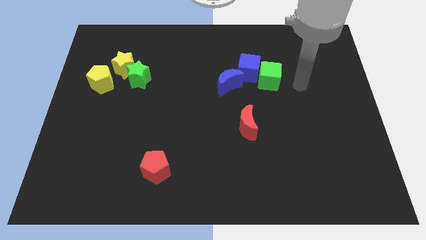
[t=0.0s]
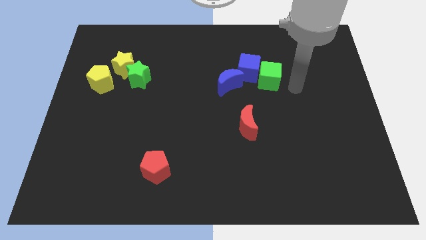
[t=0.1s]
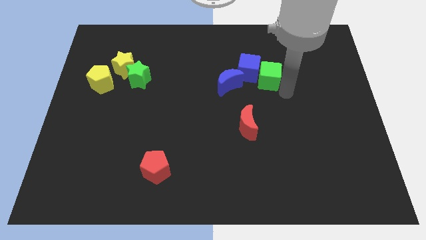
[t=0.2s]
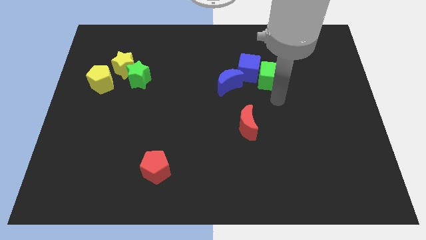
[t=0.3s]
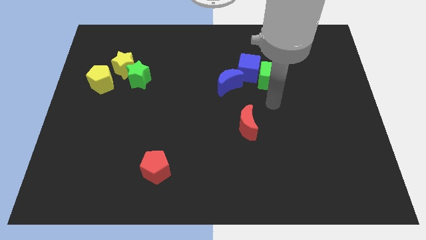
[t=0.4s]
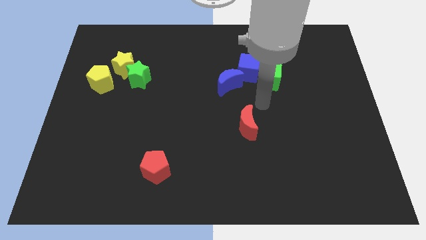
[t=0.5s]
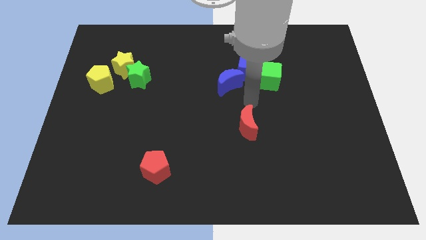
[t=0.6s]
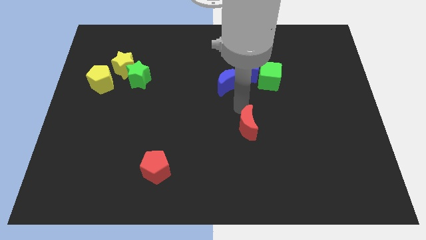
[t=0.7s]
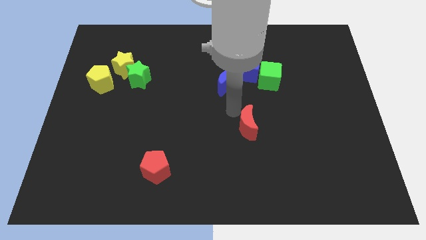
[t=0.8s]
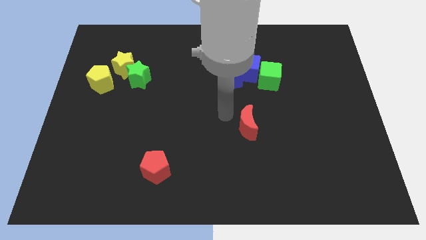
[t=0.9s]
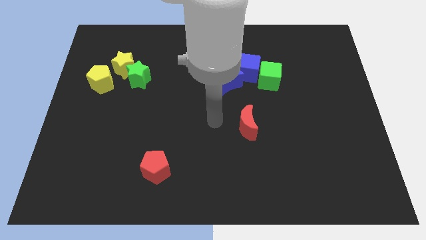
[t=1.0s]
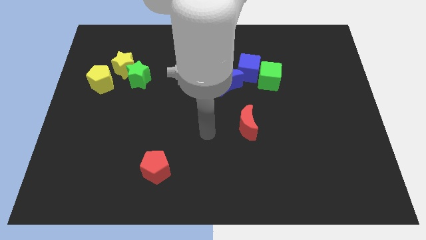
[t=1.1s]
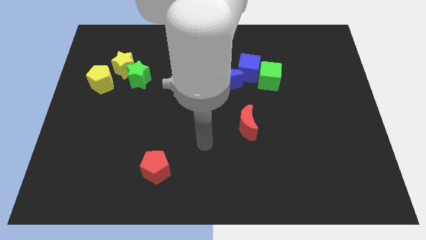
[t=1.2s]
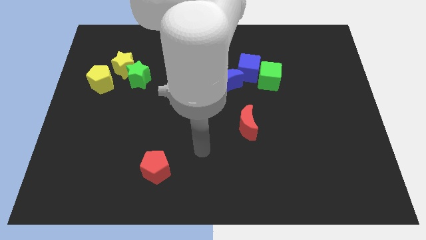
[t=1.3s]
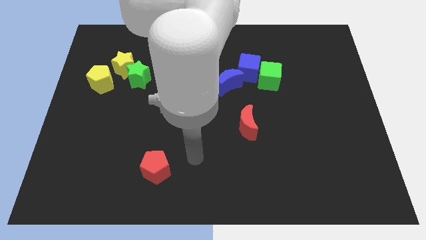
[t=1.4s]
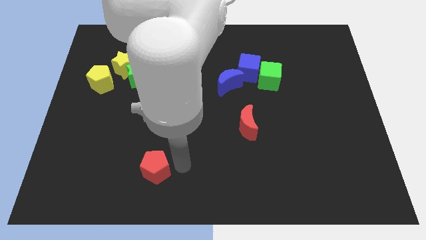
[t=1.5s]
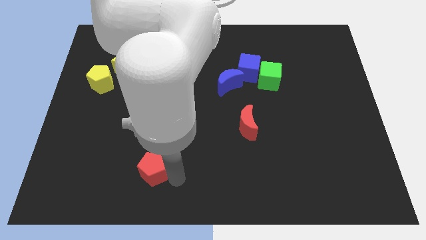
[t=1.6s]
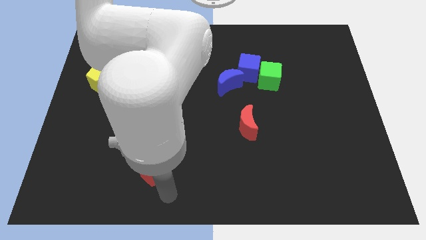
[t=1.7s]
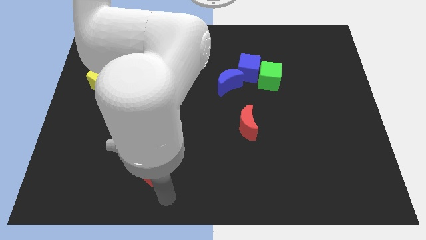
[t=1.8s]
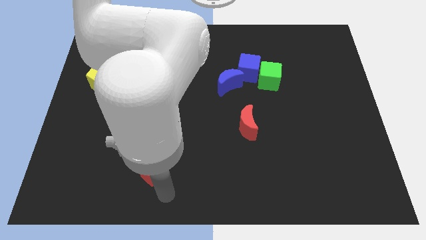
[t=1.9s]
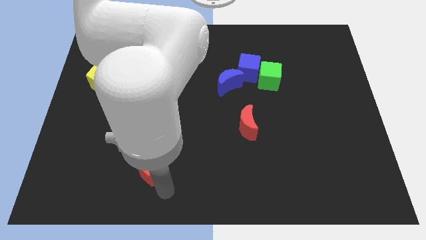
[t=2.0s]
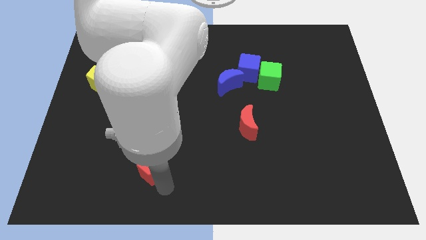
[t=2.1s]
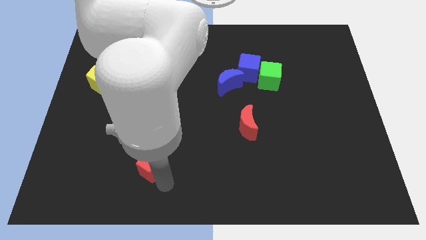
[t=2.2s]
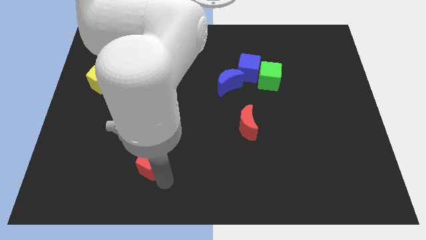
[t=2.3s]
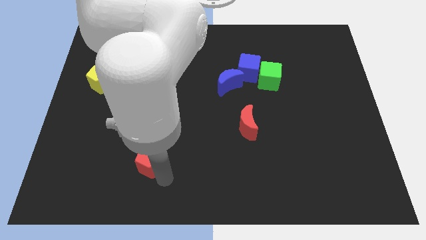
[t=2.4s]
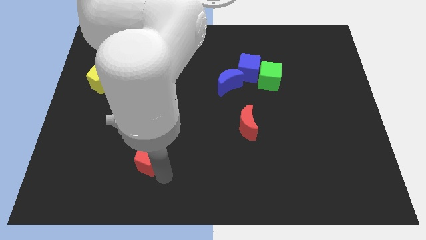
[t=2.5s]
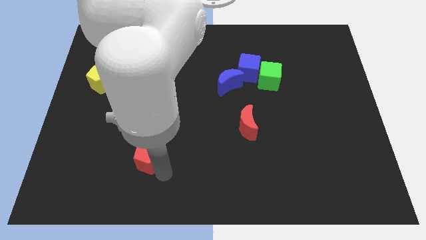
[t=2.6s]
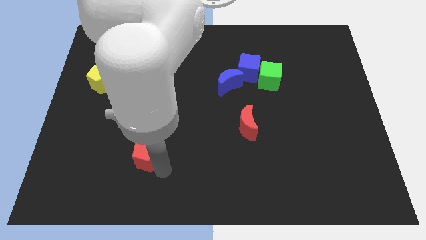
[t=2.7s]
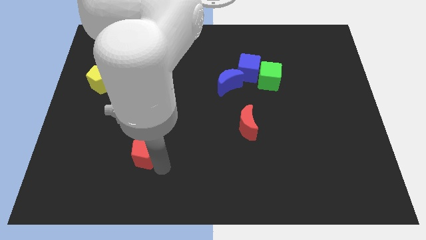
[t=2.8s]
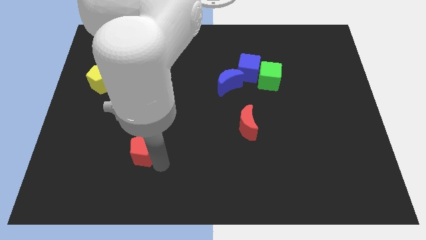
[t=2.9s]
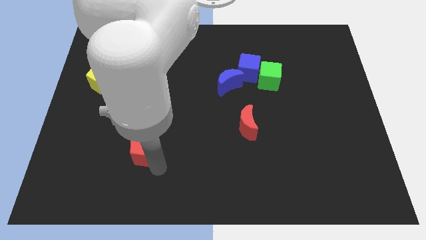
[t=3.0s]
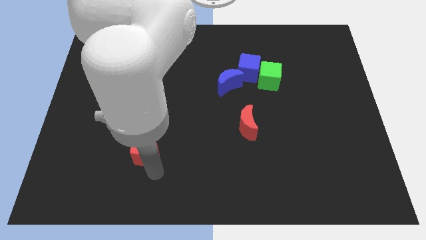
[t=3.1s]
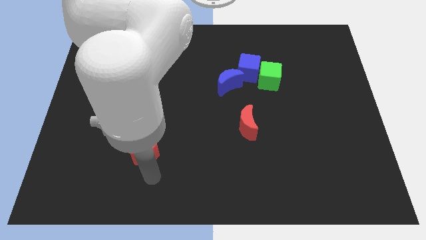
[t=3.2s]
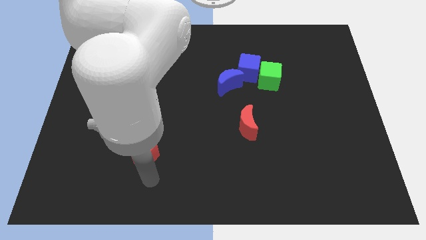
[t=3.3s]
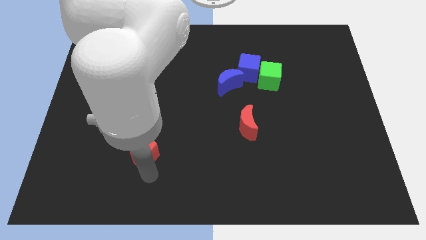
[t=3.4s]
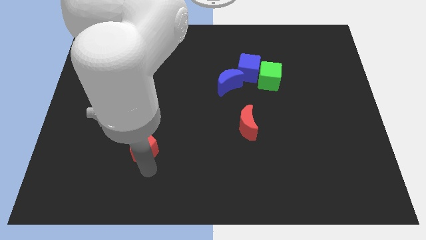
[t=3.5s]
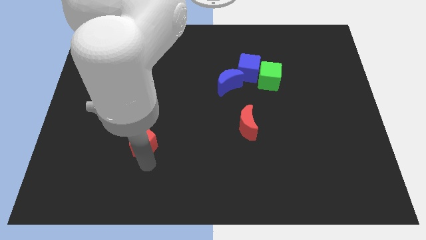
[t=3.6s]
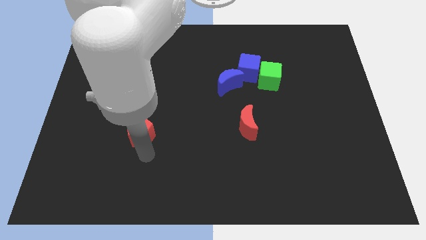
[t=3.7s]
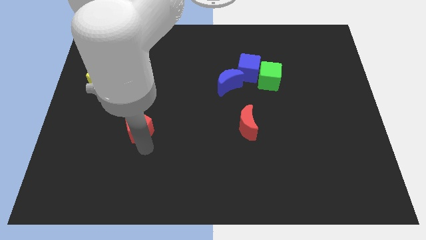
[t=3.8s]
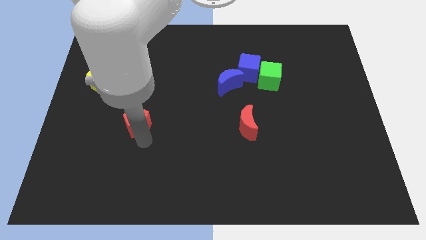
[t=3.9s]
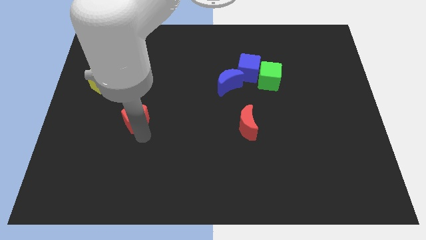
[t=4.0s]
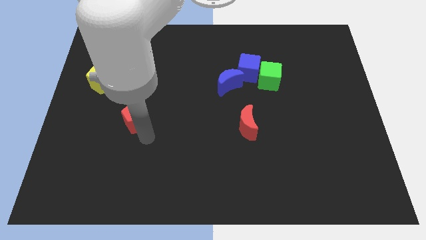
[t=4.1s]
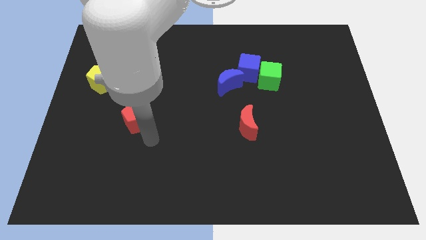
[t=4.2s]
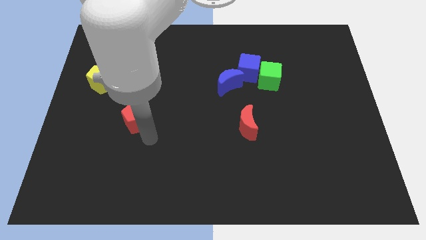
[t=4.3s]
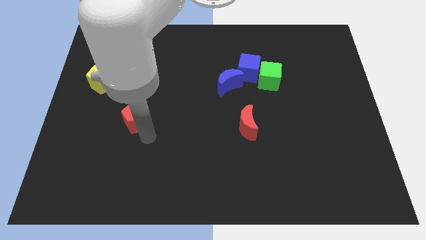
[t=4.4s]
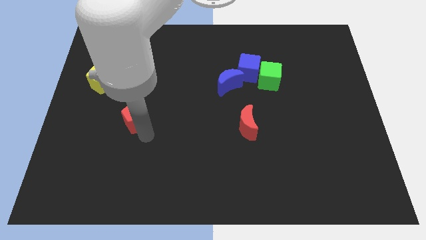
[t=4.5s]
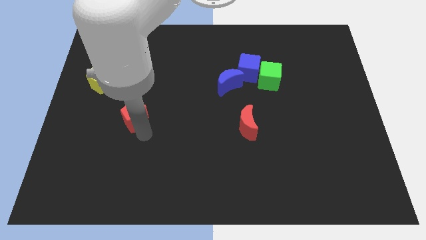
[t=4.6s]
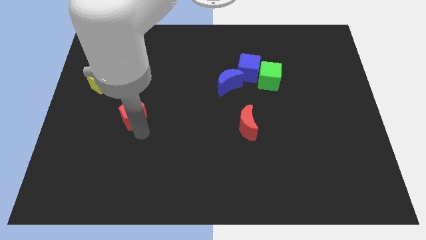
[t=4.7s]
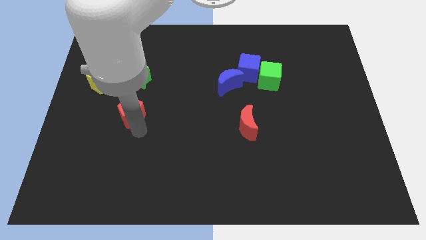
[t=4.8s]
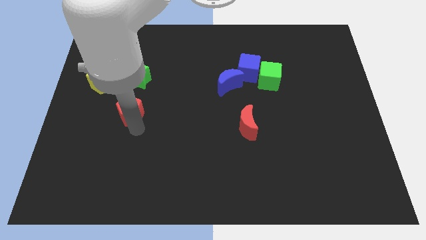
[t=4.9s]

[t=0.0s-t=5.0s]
push the red pentagon to the bottom of the yellow star

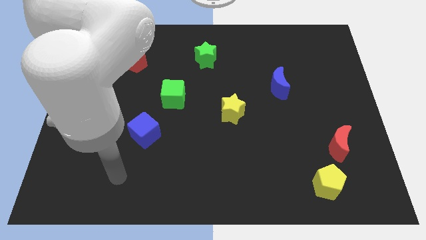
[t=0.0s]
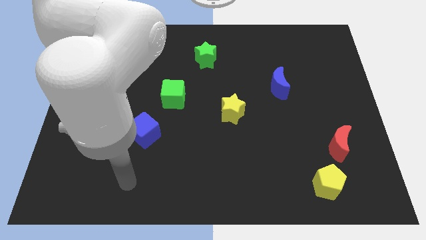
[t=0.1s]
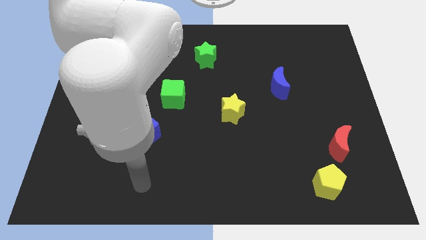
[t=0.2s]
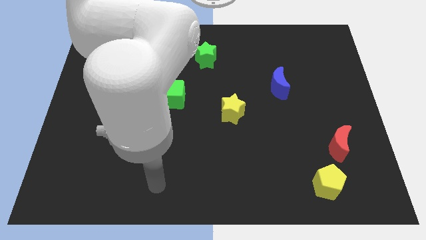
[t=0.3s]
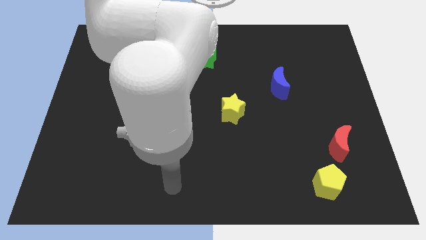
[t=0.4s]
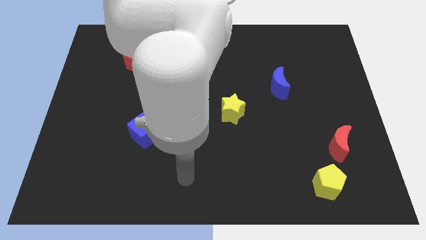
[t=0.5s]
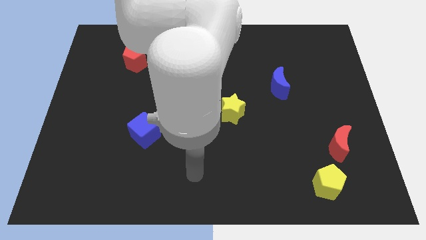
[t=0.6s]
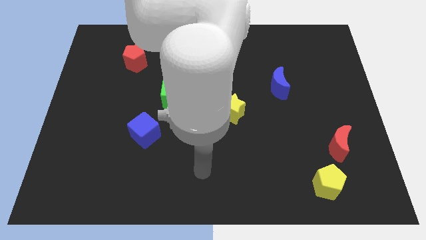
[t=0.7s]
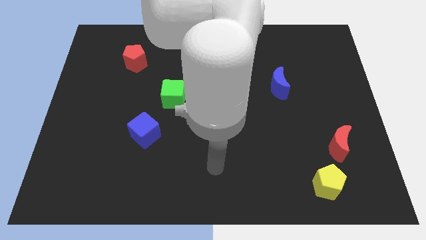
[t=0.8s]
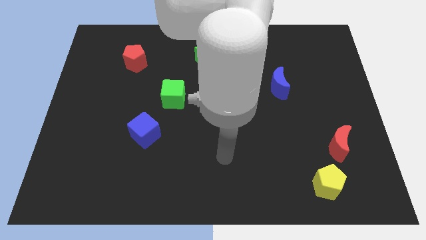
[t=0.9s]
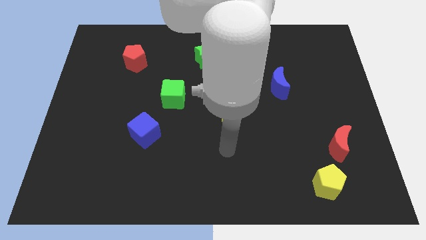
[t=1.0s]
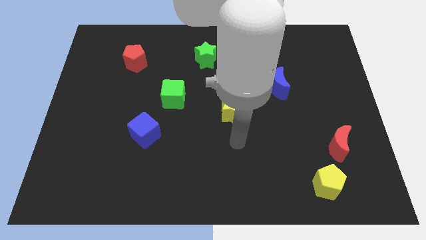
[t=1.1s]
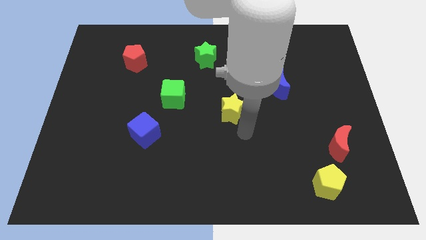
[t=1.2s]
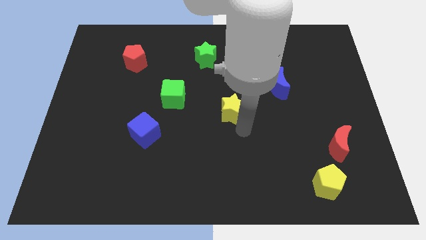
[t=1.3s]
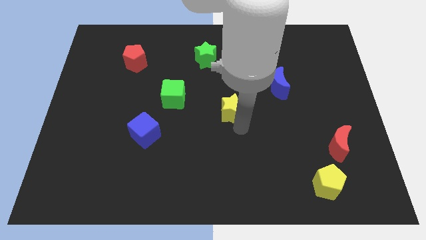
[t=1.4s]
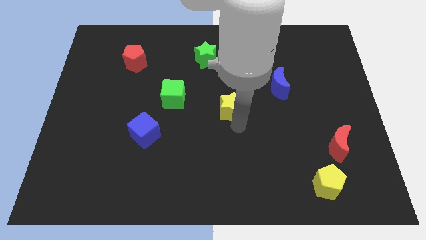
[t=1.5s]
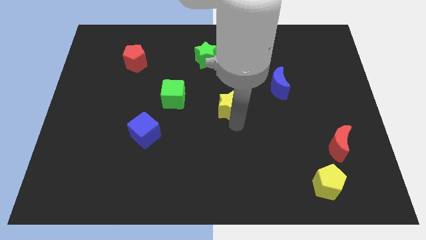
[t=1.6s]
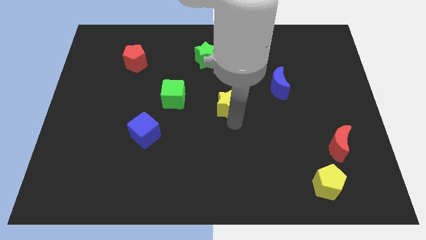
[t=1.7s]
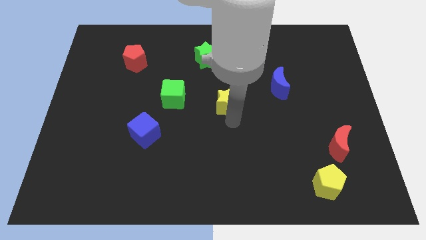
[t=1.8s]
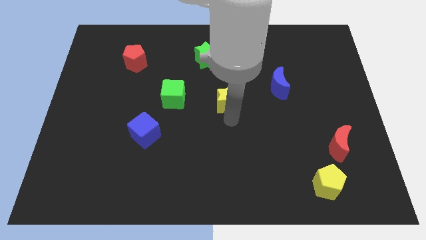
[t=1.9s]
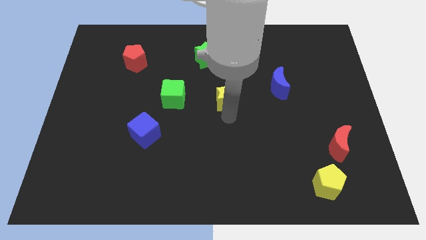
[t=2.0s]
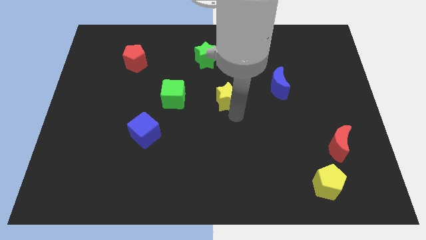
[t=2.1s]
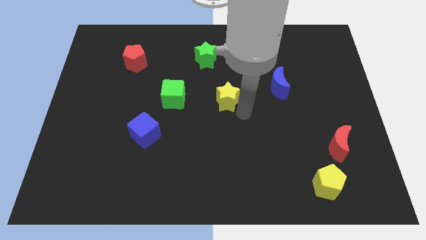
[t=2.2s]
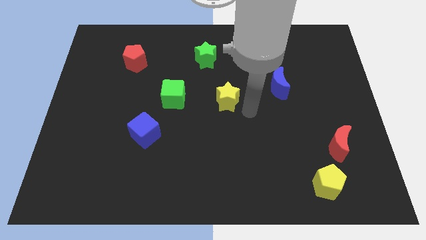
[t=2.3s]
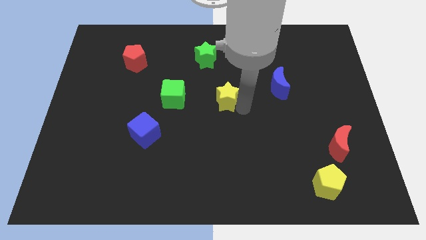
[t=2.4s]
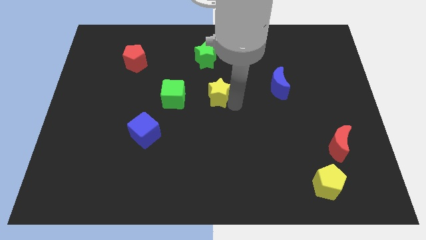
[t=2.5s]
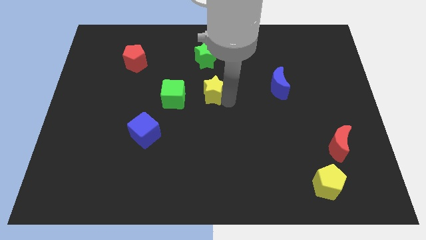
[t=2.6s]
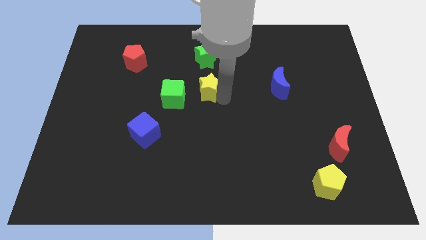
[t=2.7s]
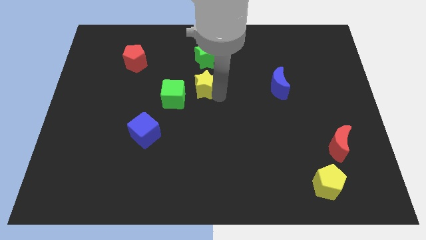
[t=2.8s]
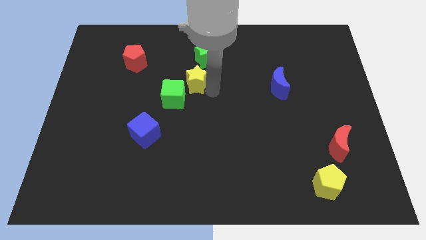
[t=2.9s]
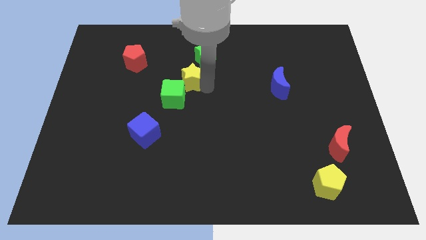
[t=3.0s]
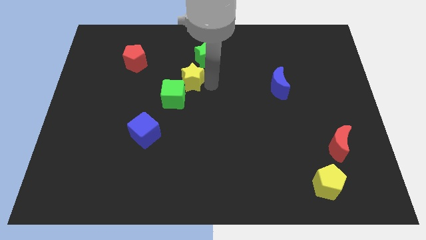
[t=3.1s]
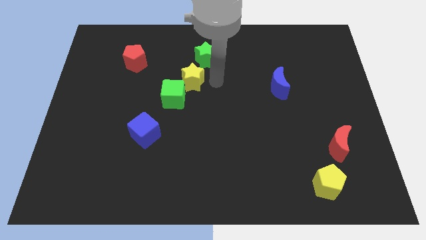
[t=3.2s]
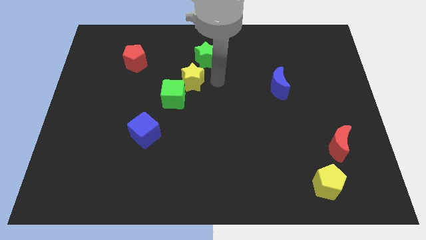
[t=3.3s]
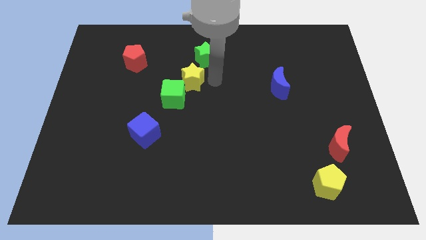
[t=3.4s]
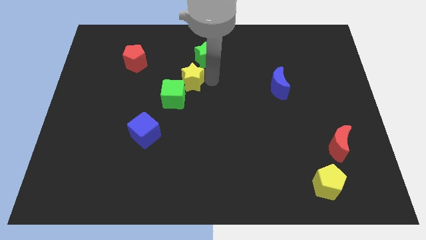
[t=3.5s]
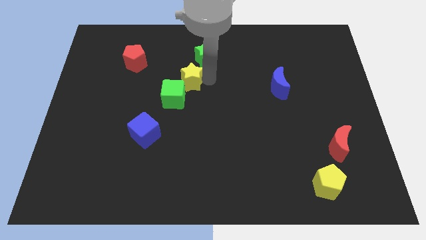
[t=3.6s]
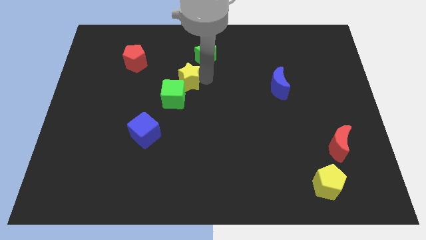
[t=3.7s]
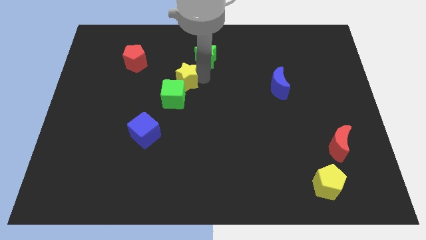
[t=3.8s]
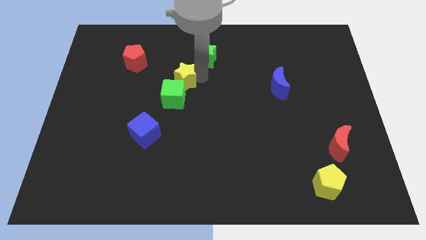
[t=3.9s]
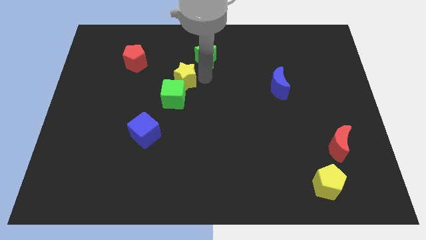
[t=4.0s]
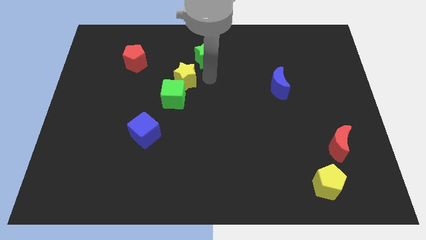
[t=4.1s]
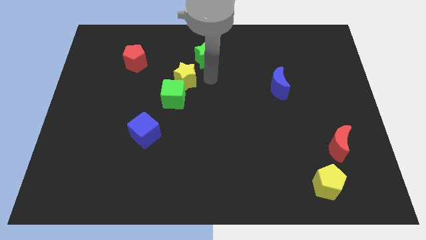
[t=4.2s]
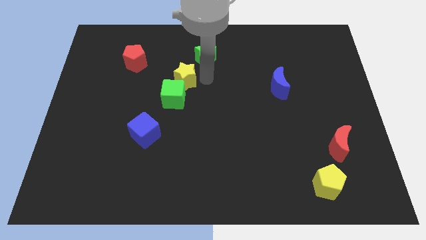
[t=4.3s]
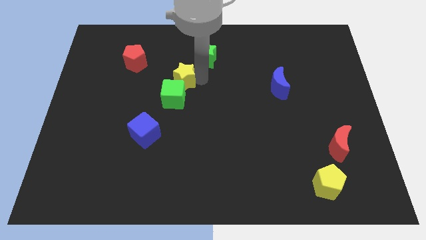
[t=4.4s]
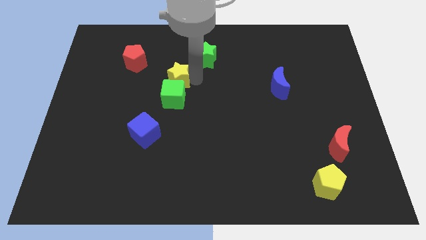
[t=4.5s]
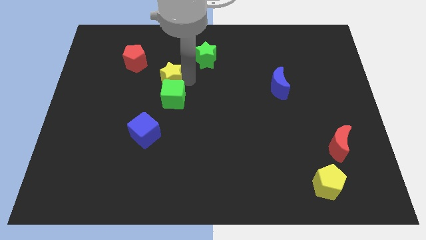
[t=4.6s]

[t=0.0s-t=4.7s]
slide the yellow star to the bottom right side of the red pentagon
